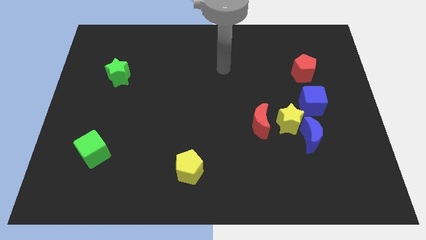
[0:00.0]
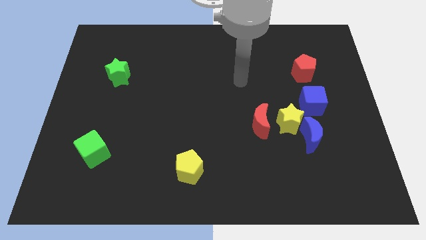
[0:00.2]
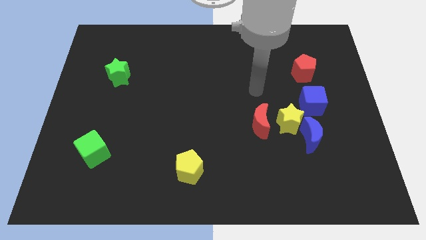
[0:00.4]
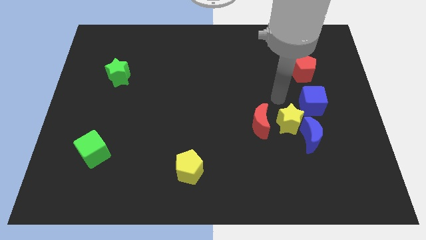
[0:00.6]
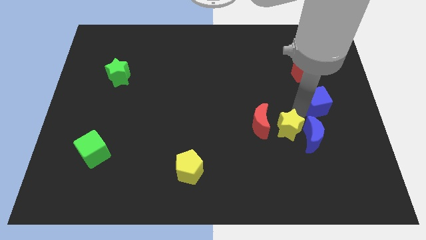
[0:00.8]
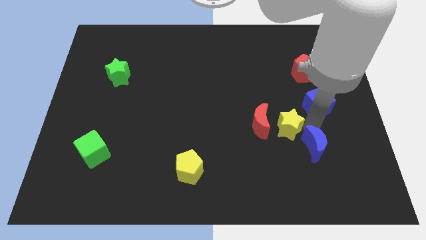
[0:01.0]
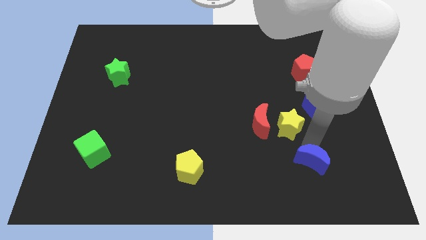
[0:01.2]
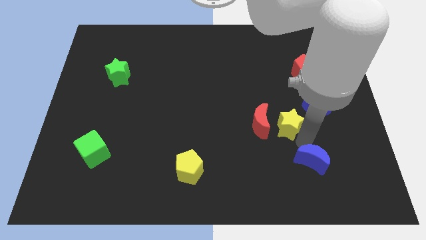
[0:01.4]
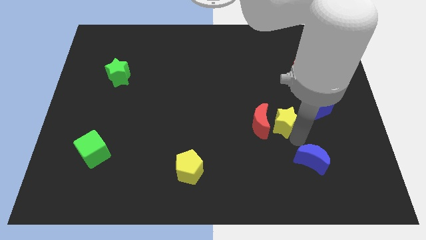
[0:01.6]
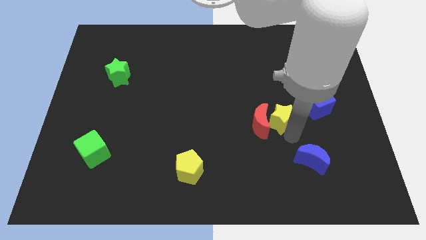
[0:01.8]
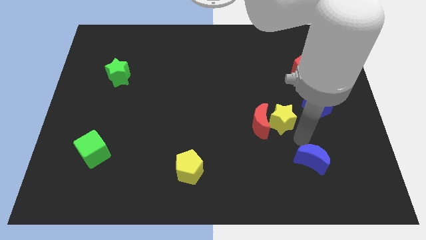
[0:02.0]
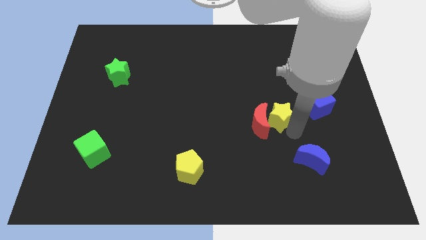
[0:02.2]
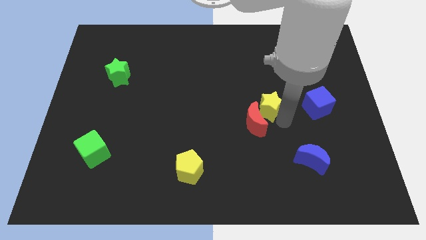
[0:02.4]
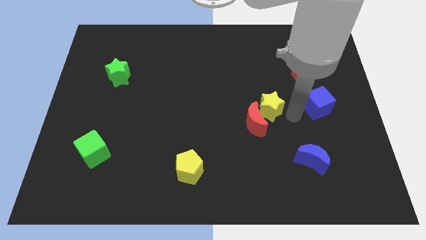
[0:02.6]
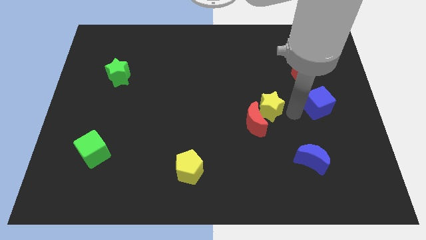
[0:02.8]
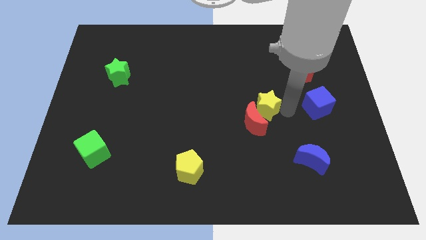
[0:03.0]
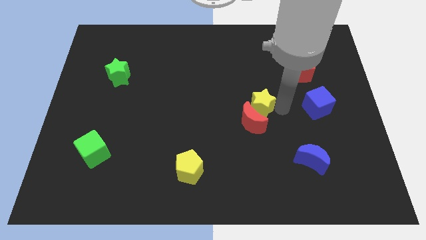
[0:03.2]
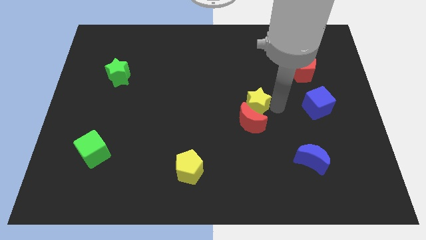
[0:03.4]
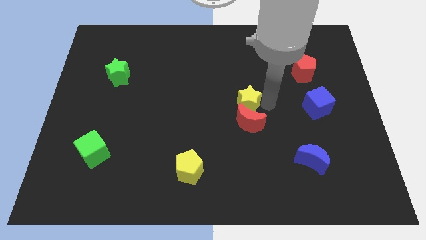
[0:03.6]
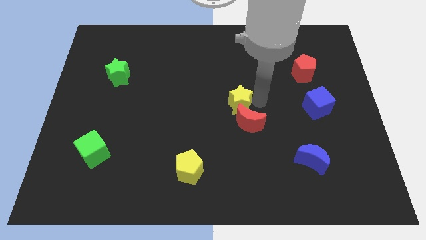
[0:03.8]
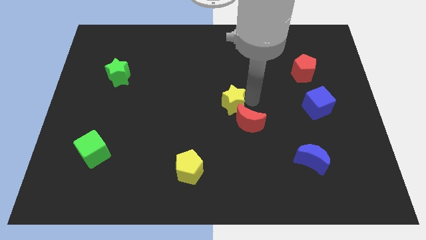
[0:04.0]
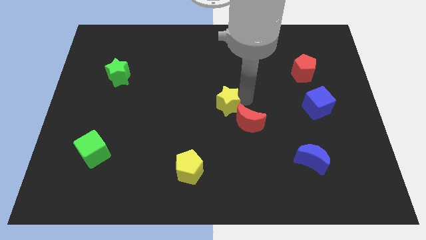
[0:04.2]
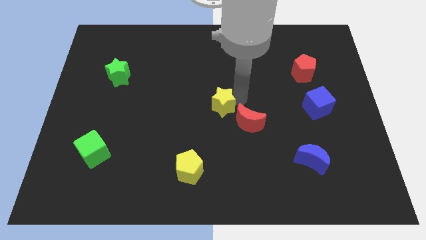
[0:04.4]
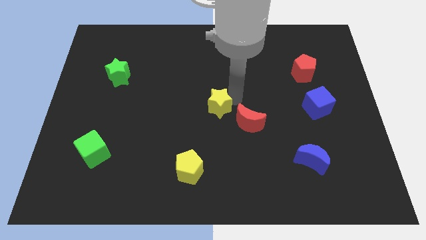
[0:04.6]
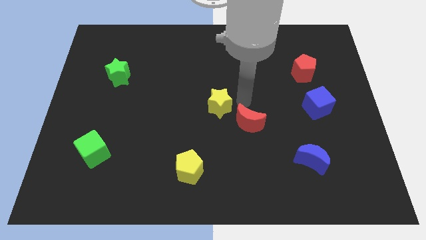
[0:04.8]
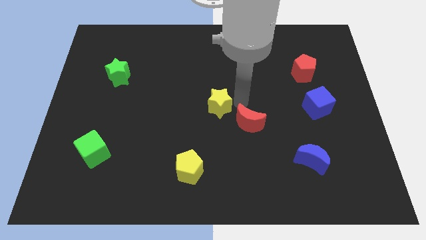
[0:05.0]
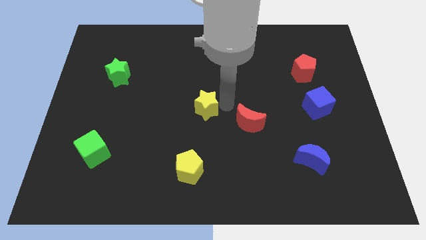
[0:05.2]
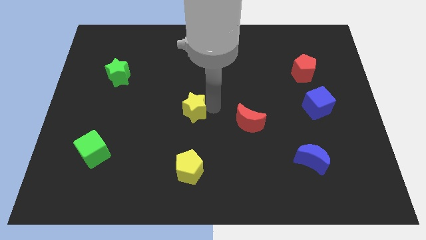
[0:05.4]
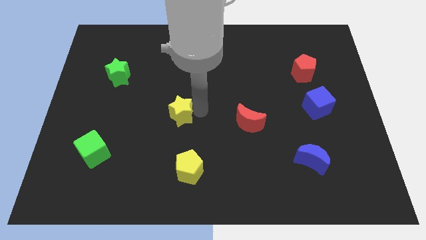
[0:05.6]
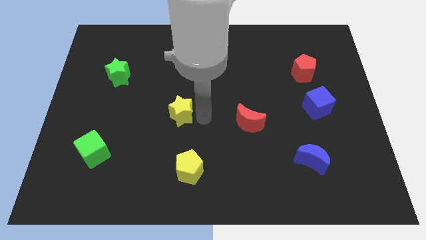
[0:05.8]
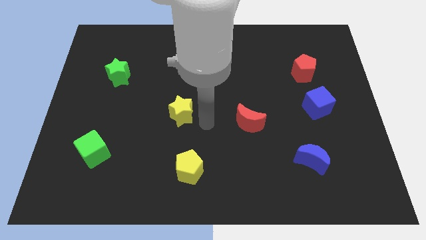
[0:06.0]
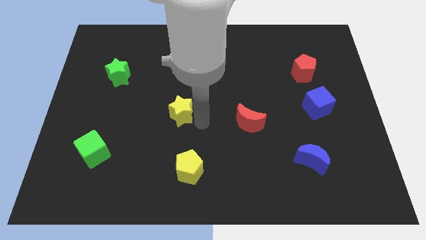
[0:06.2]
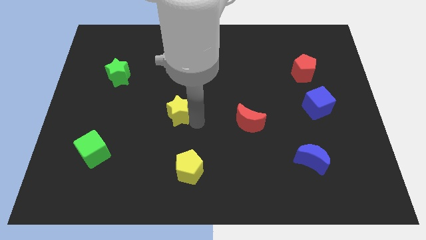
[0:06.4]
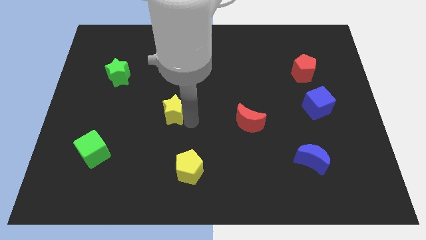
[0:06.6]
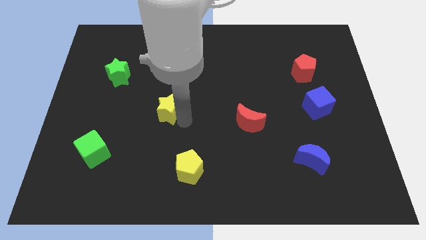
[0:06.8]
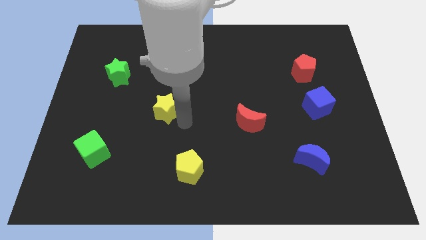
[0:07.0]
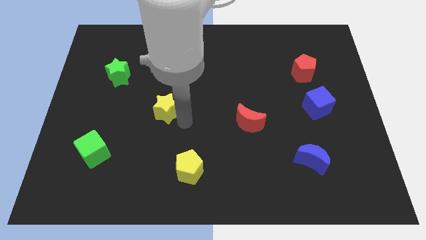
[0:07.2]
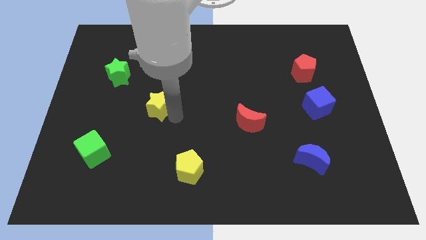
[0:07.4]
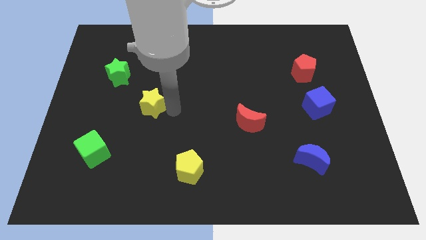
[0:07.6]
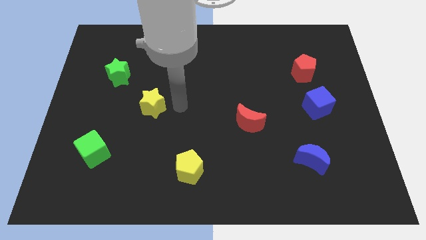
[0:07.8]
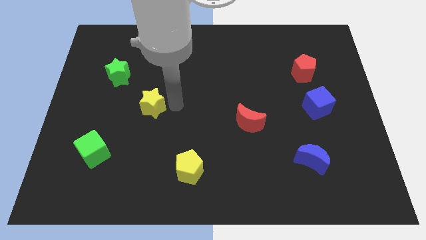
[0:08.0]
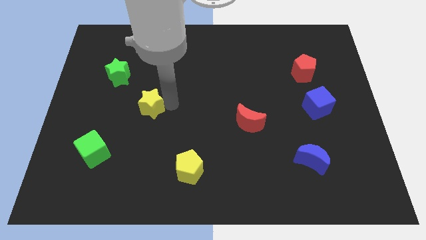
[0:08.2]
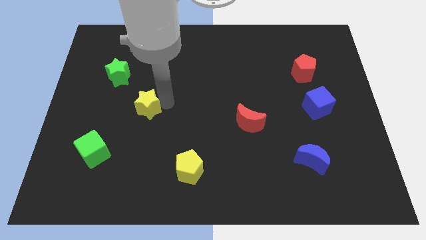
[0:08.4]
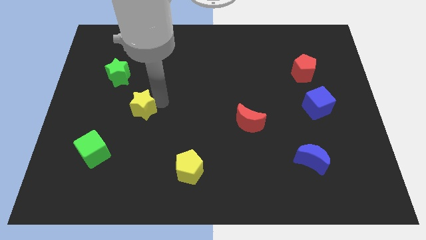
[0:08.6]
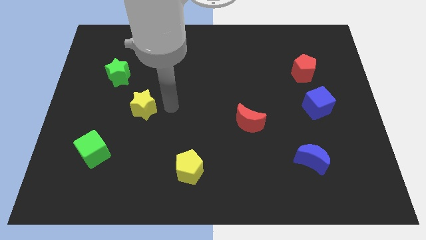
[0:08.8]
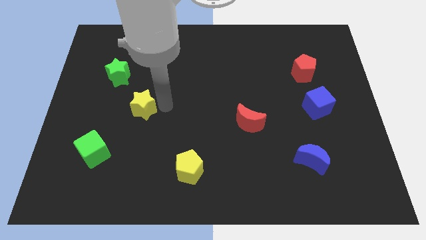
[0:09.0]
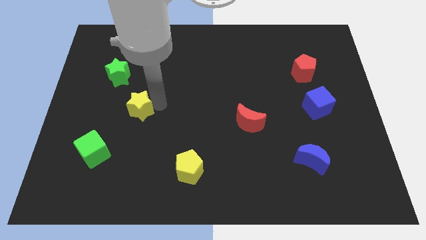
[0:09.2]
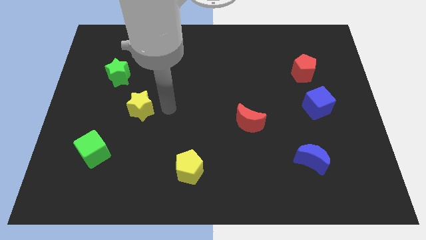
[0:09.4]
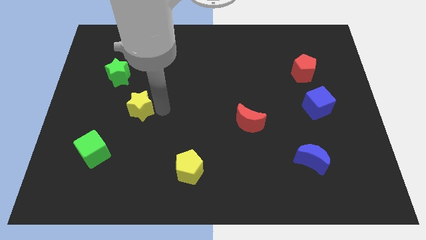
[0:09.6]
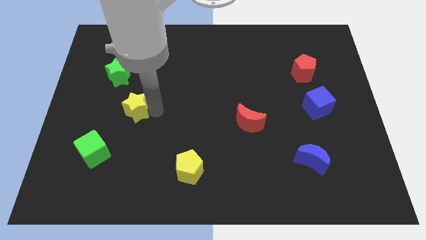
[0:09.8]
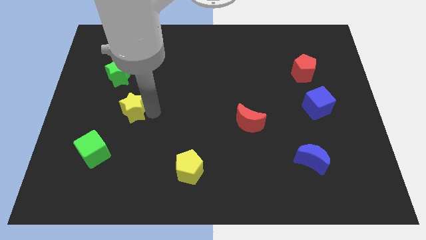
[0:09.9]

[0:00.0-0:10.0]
push the yellow star to the bottom of the green star

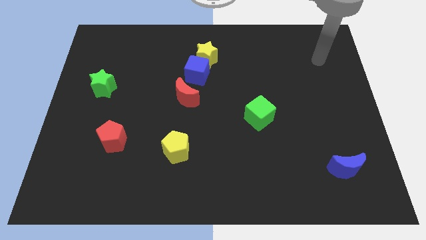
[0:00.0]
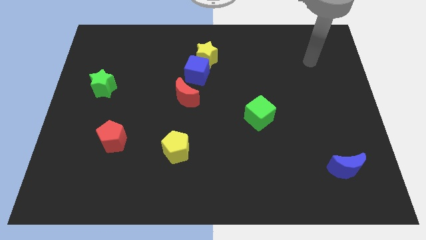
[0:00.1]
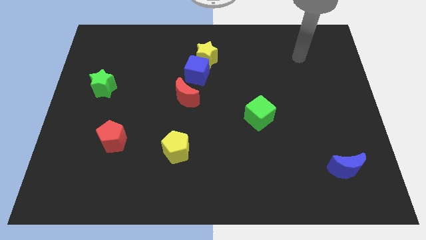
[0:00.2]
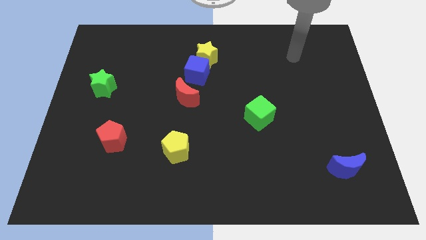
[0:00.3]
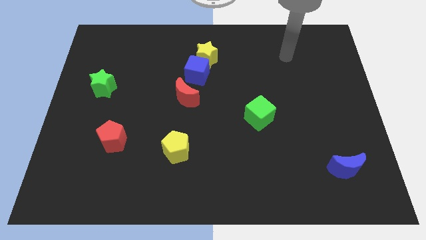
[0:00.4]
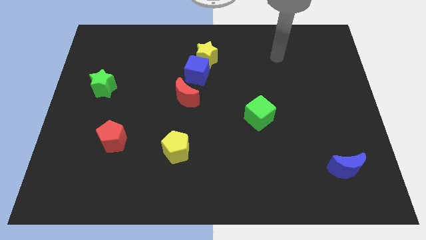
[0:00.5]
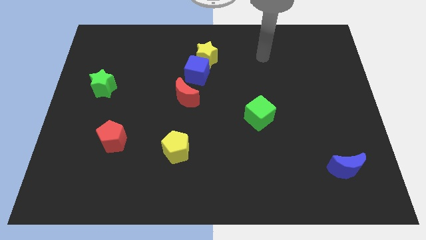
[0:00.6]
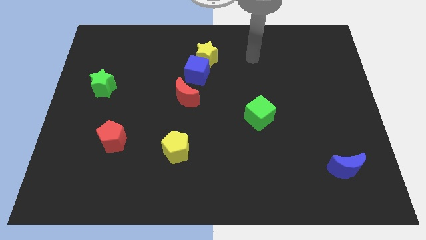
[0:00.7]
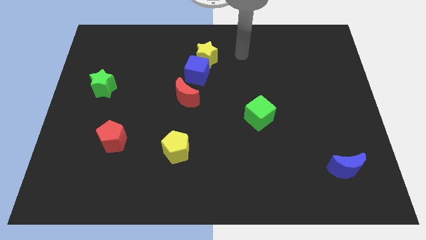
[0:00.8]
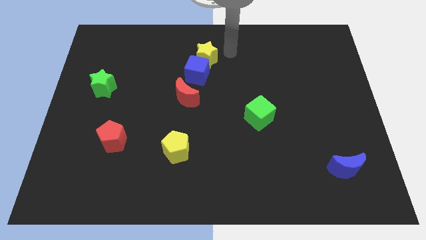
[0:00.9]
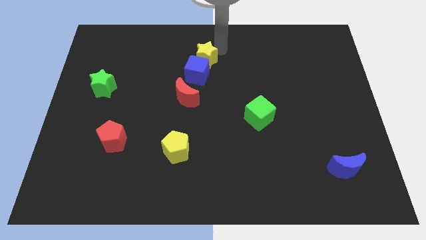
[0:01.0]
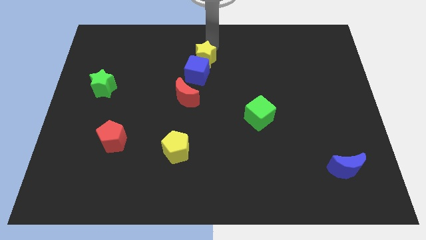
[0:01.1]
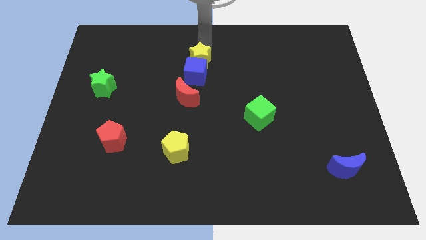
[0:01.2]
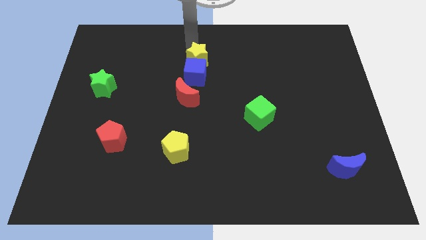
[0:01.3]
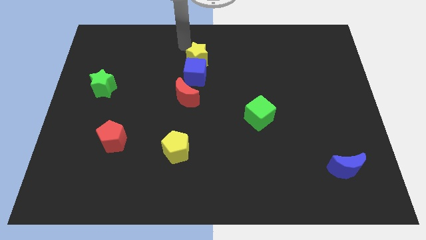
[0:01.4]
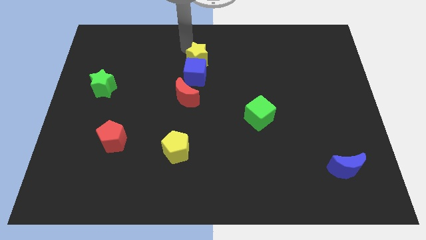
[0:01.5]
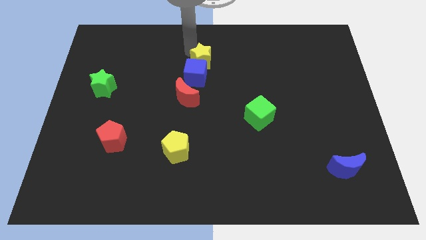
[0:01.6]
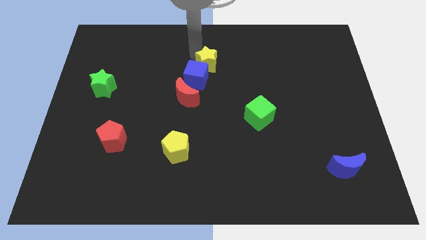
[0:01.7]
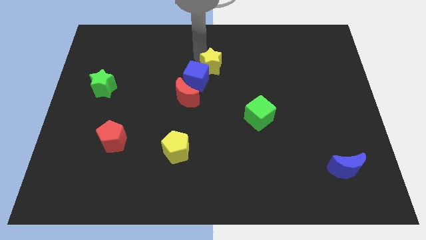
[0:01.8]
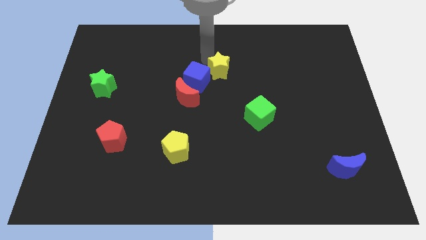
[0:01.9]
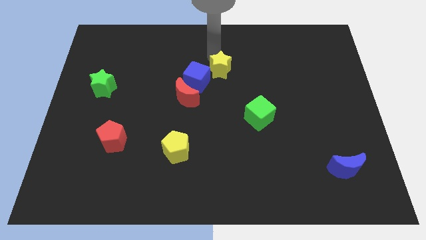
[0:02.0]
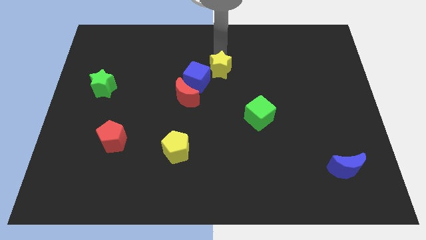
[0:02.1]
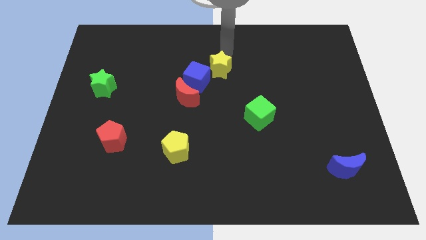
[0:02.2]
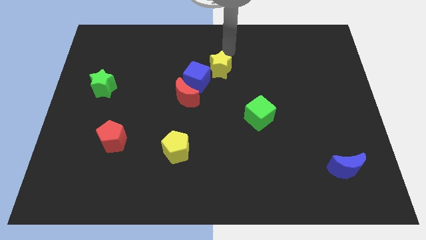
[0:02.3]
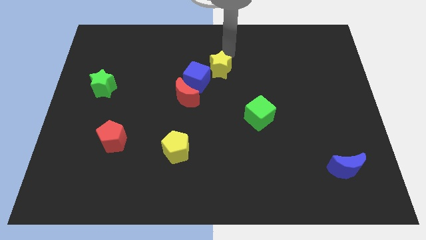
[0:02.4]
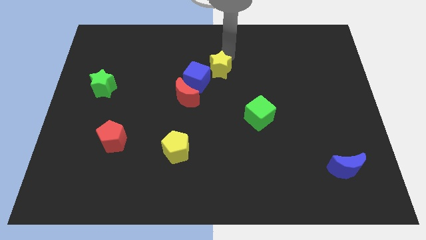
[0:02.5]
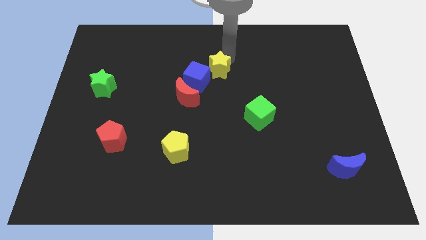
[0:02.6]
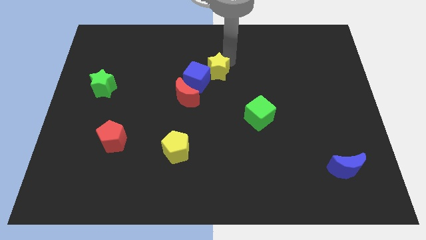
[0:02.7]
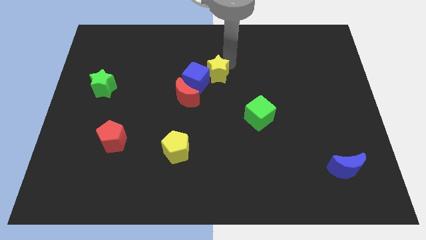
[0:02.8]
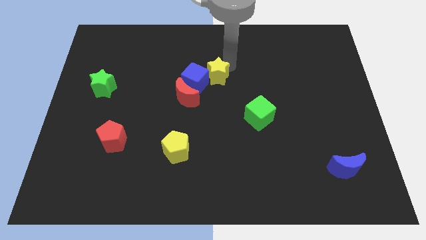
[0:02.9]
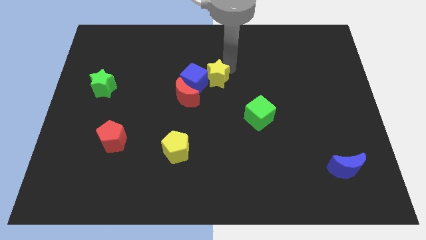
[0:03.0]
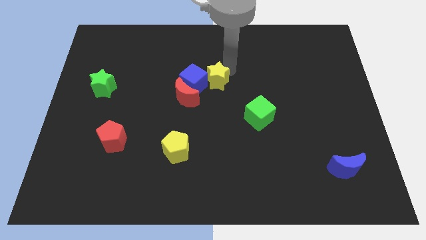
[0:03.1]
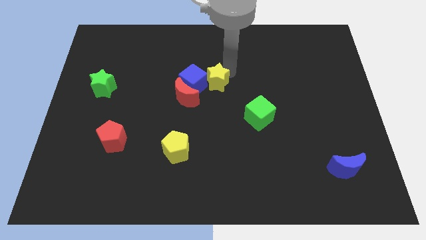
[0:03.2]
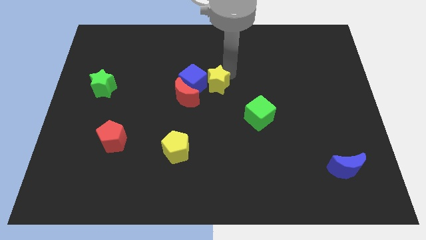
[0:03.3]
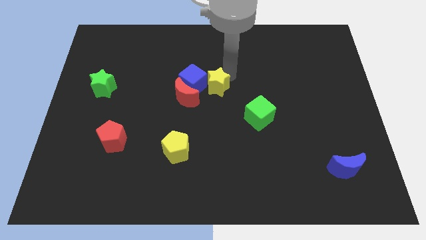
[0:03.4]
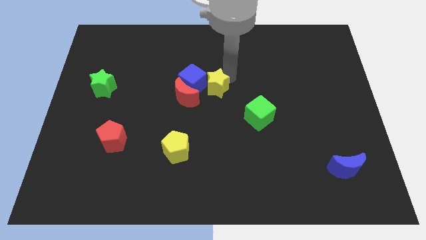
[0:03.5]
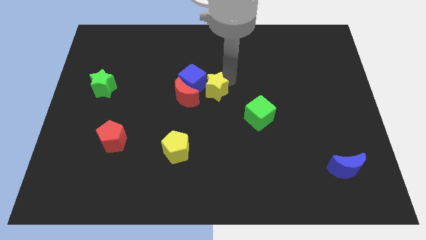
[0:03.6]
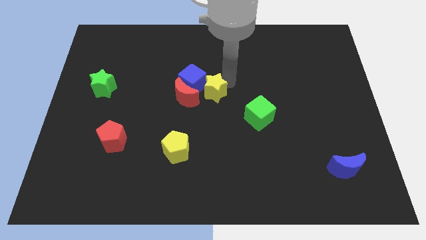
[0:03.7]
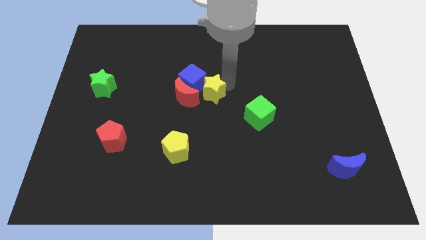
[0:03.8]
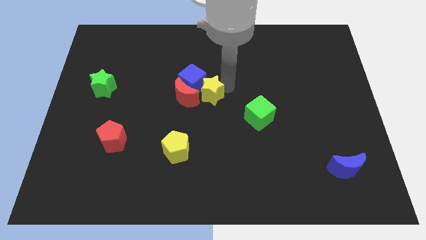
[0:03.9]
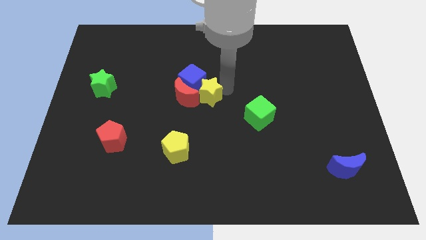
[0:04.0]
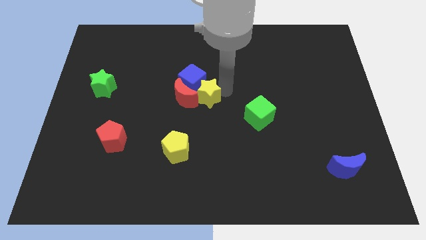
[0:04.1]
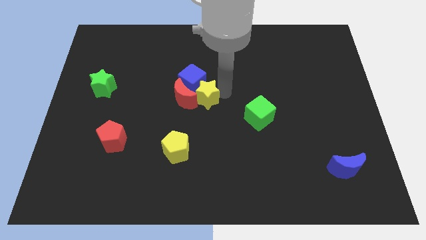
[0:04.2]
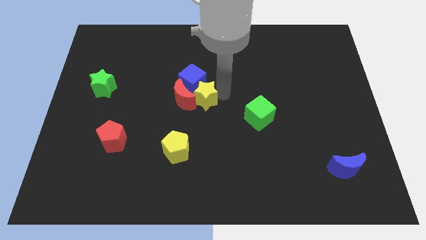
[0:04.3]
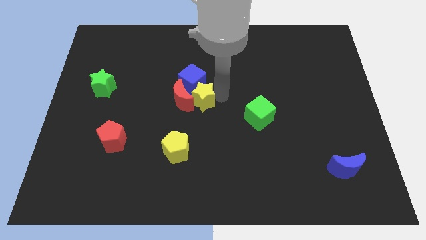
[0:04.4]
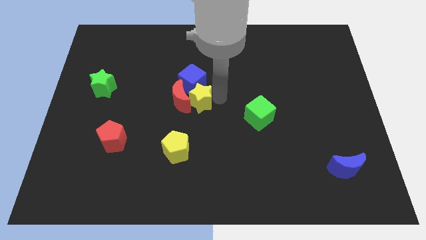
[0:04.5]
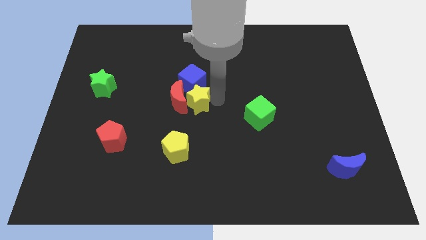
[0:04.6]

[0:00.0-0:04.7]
push the yellow star to the top side of the yellow pentagon
